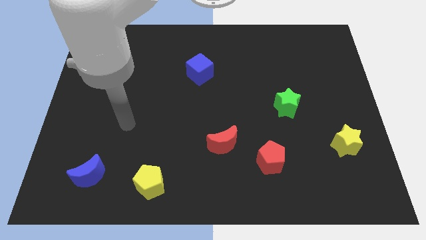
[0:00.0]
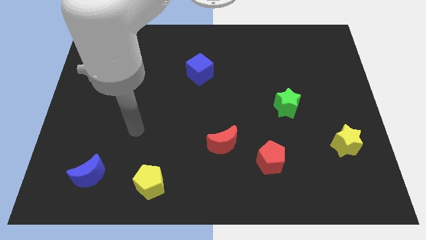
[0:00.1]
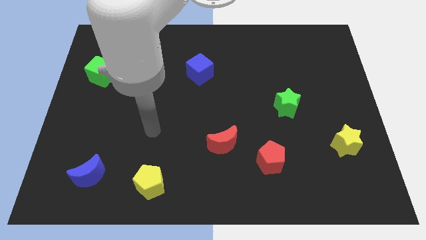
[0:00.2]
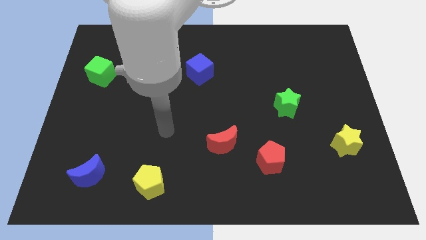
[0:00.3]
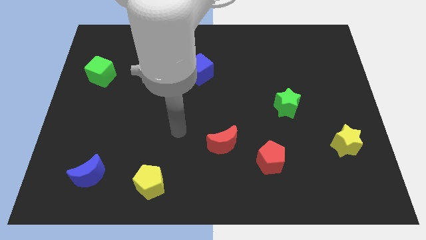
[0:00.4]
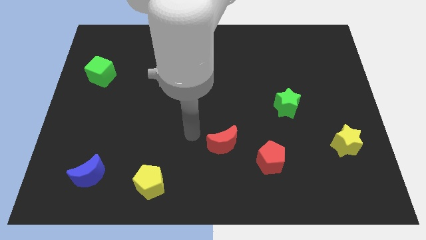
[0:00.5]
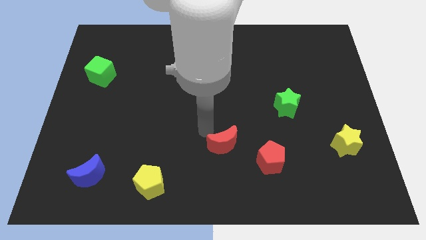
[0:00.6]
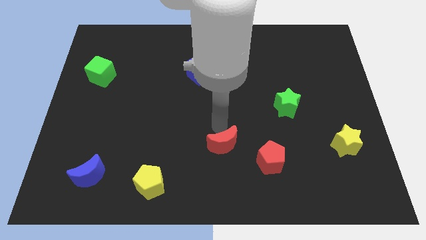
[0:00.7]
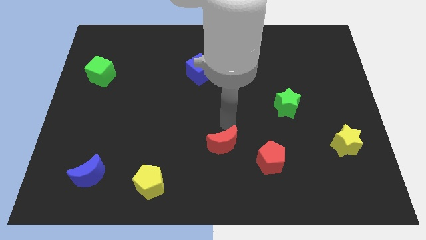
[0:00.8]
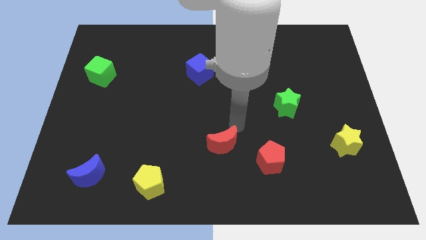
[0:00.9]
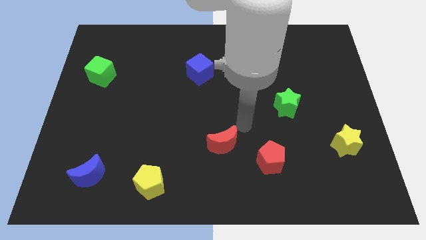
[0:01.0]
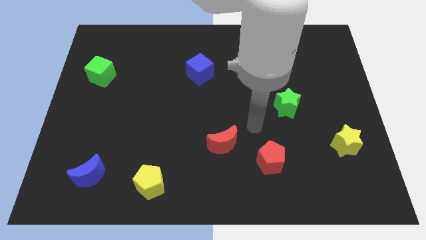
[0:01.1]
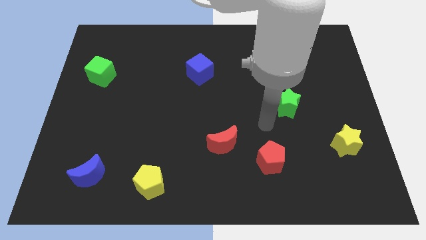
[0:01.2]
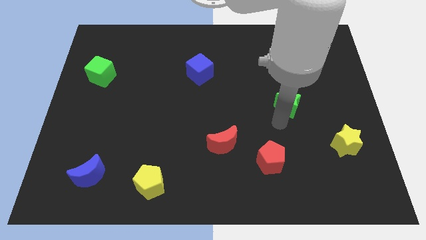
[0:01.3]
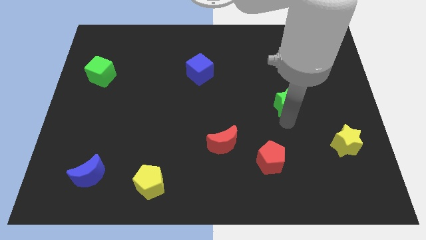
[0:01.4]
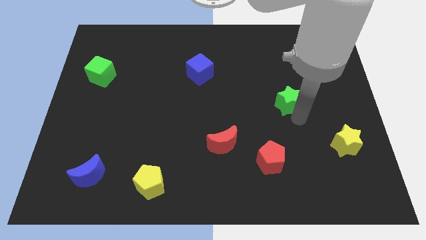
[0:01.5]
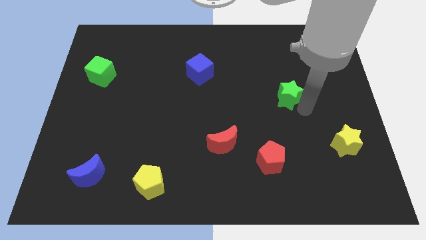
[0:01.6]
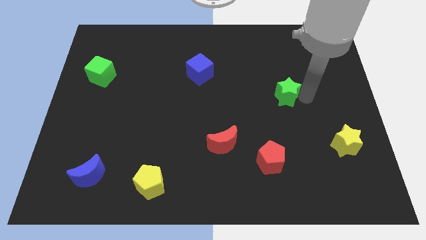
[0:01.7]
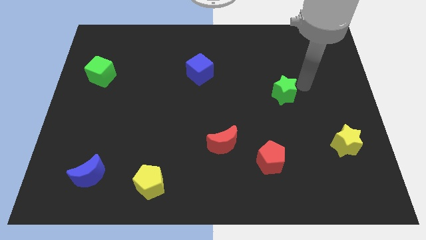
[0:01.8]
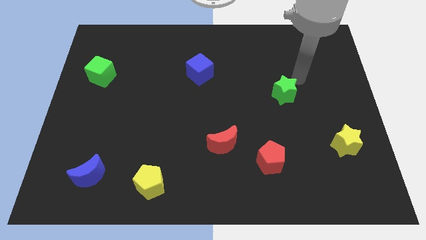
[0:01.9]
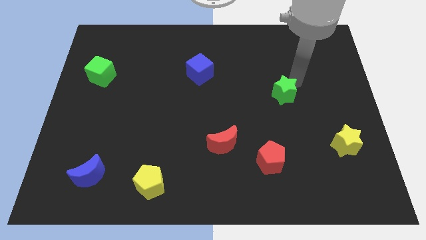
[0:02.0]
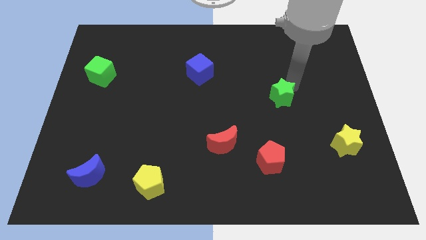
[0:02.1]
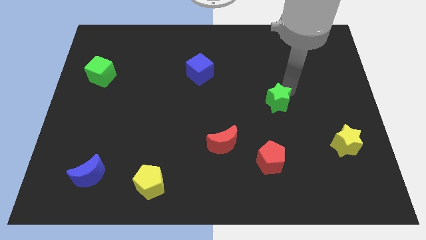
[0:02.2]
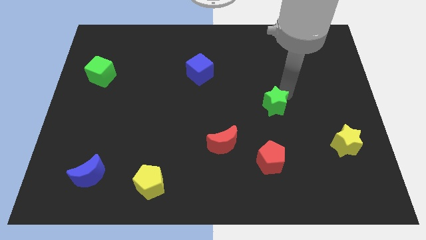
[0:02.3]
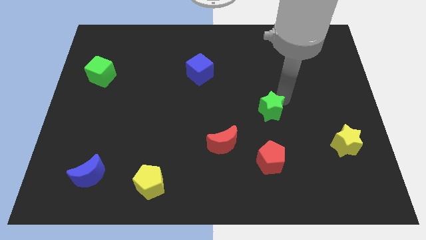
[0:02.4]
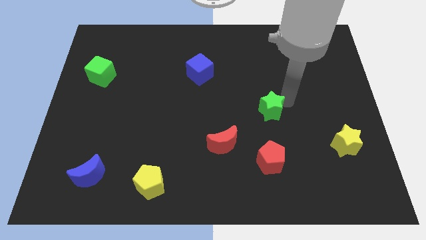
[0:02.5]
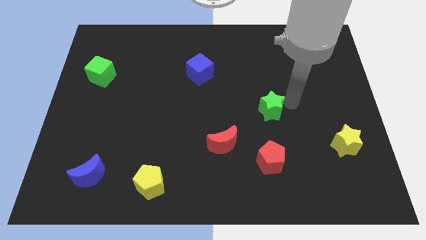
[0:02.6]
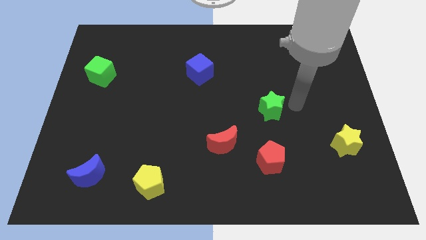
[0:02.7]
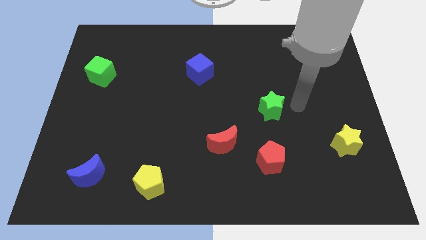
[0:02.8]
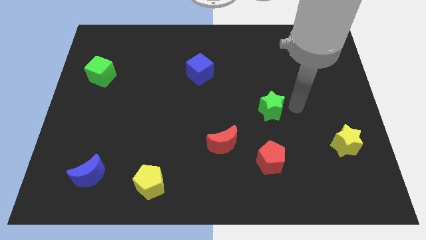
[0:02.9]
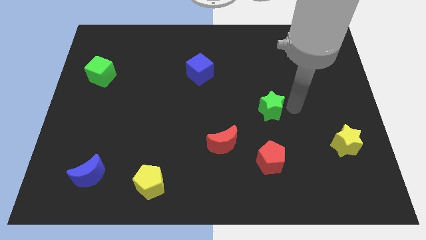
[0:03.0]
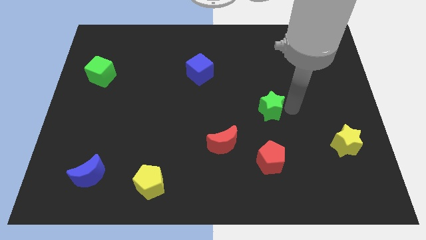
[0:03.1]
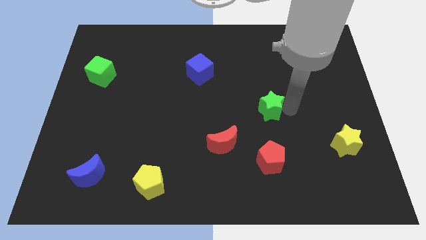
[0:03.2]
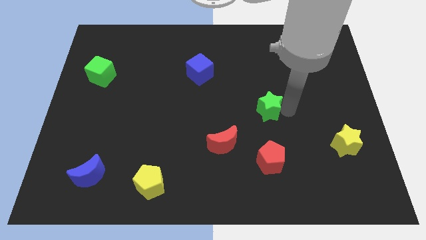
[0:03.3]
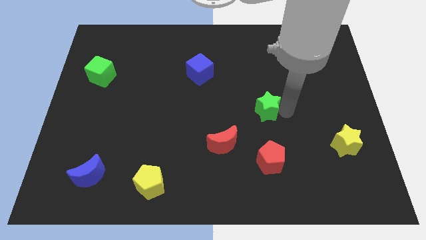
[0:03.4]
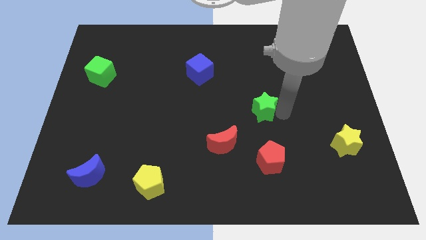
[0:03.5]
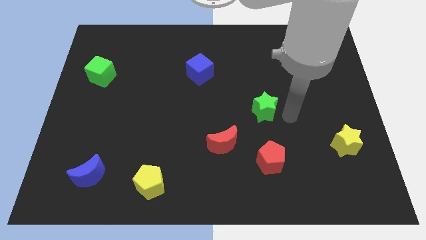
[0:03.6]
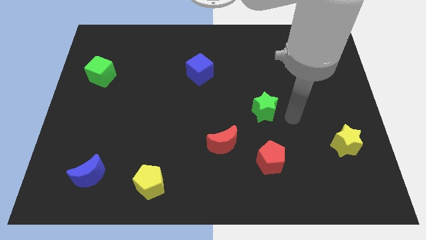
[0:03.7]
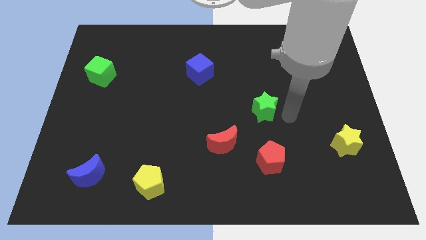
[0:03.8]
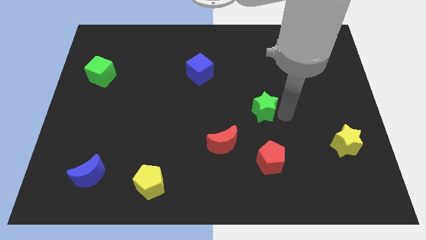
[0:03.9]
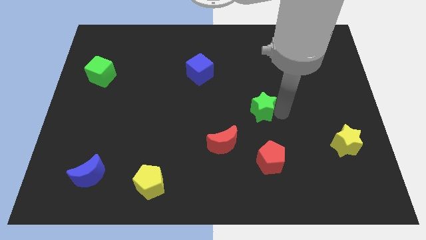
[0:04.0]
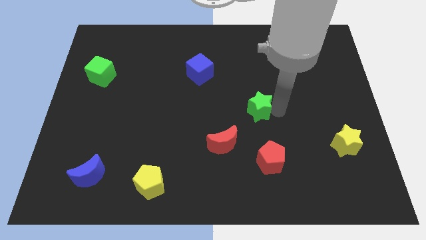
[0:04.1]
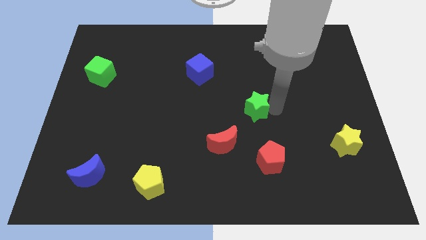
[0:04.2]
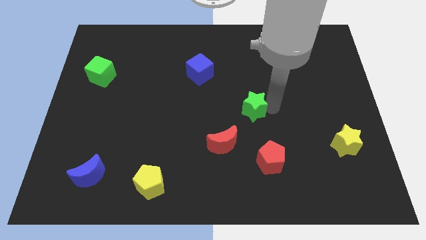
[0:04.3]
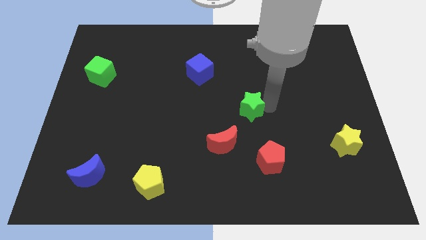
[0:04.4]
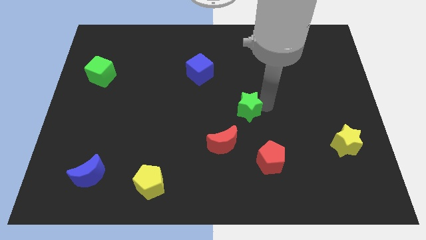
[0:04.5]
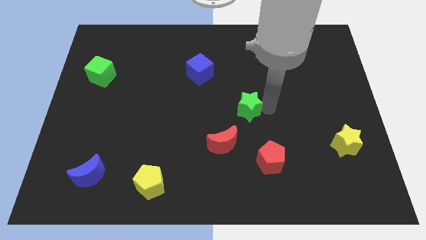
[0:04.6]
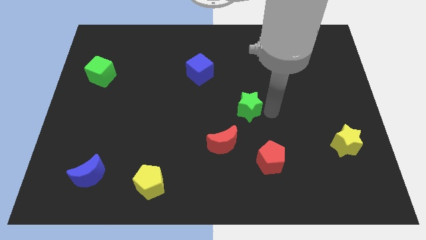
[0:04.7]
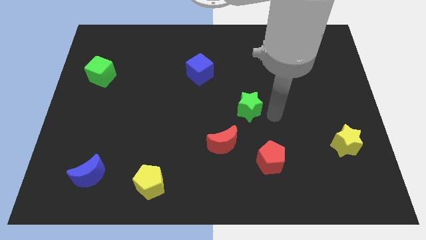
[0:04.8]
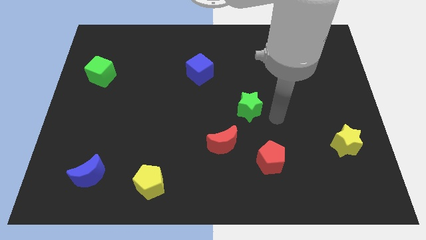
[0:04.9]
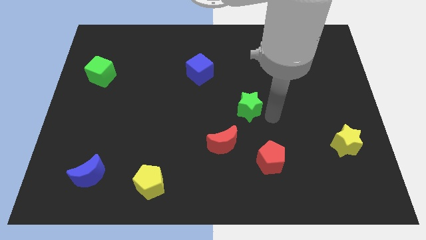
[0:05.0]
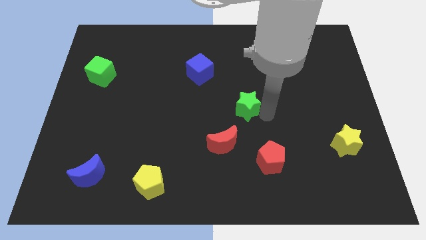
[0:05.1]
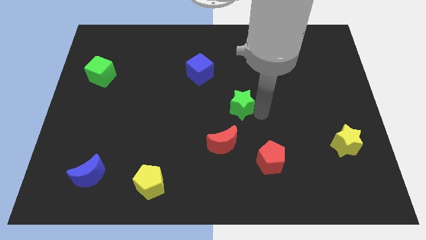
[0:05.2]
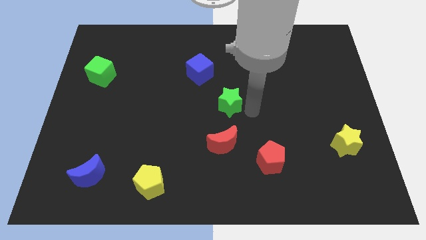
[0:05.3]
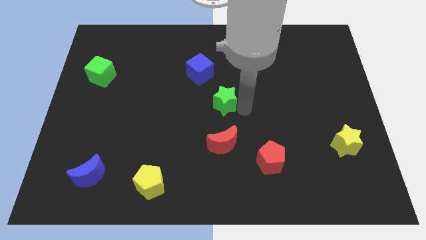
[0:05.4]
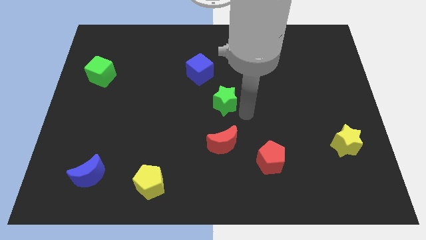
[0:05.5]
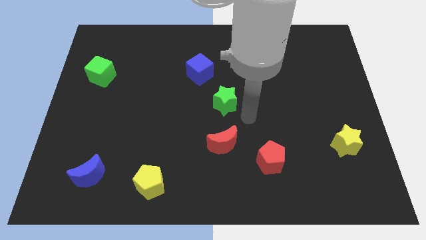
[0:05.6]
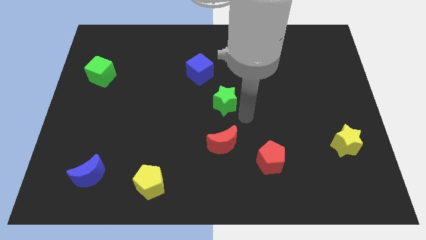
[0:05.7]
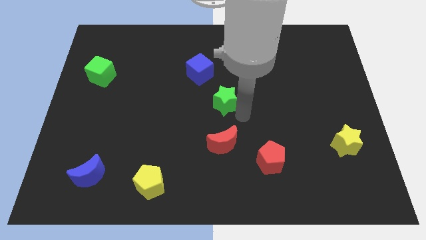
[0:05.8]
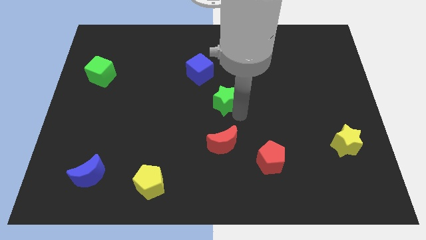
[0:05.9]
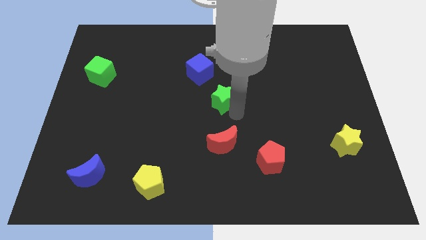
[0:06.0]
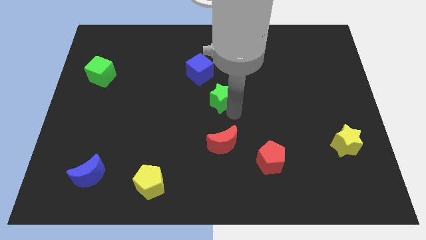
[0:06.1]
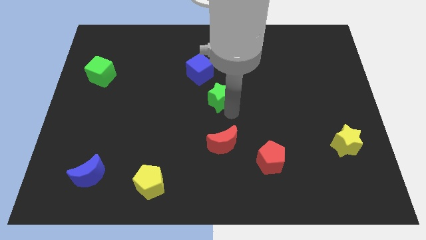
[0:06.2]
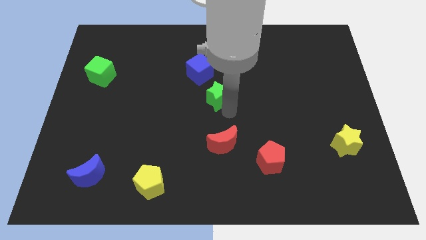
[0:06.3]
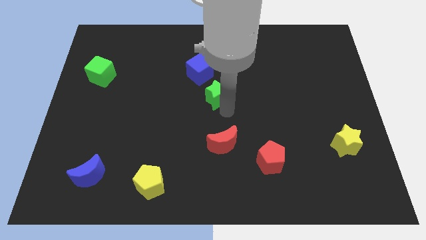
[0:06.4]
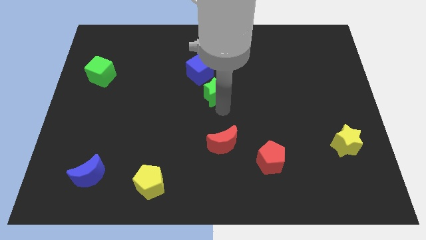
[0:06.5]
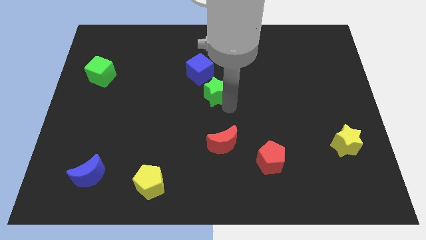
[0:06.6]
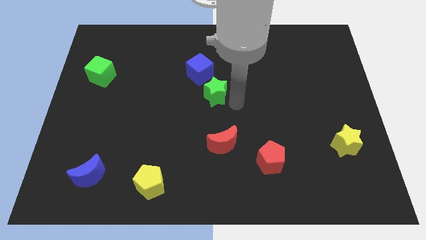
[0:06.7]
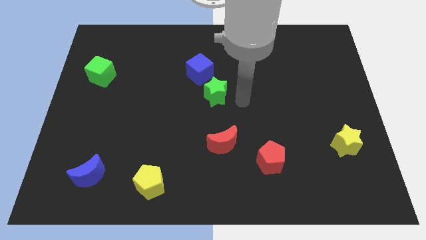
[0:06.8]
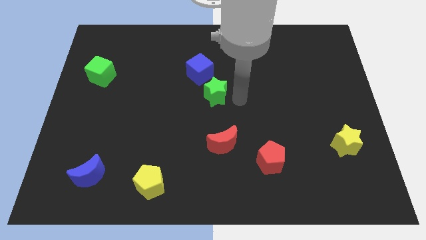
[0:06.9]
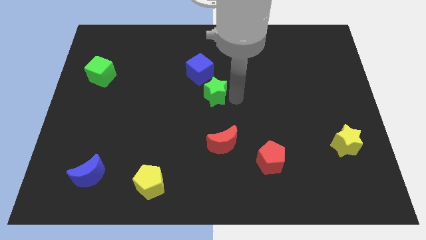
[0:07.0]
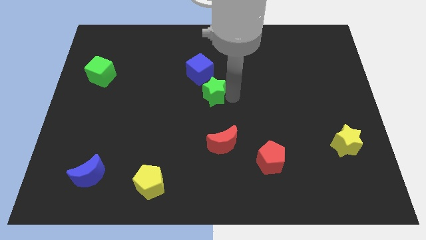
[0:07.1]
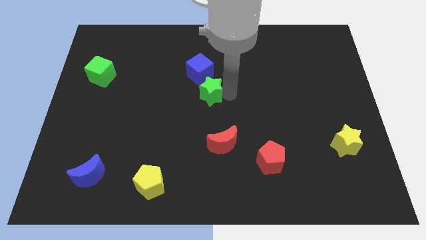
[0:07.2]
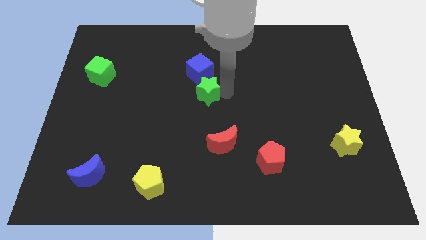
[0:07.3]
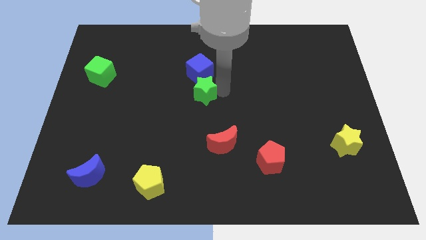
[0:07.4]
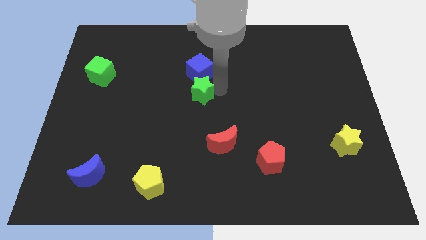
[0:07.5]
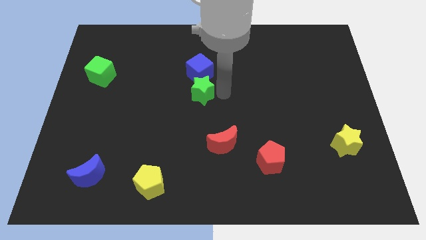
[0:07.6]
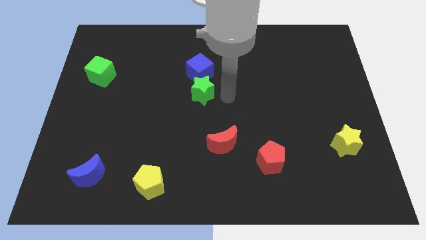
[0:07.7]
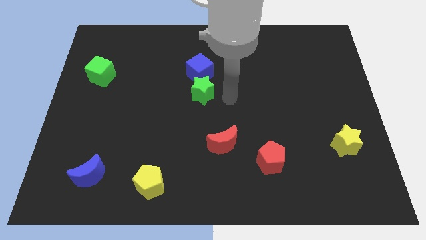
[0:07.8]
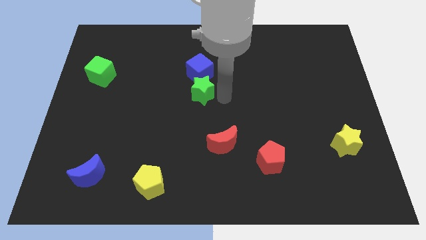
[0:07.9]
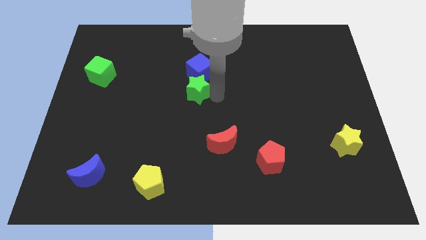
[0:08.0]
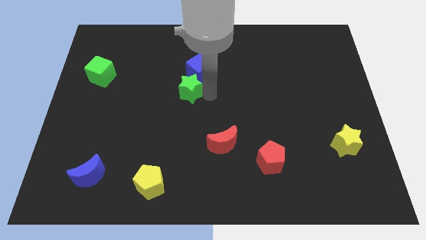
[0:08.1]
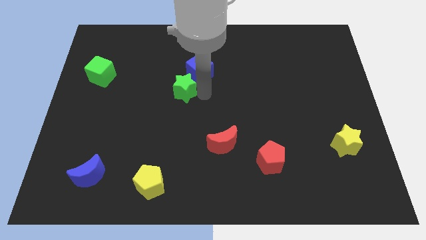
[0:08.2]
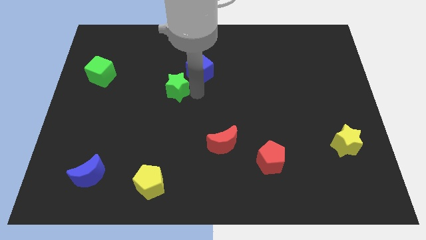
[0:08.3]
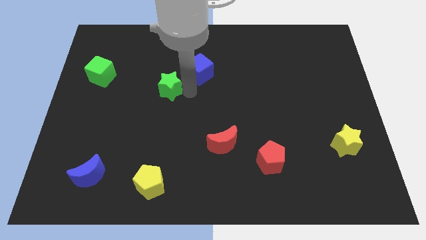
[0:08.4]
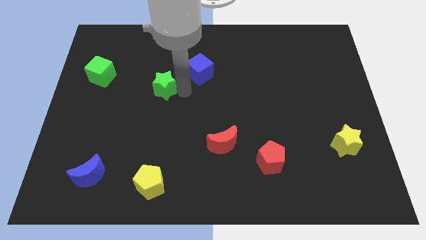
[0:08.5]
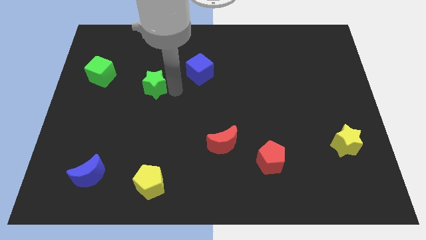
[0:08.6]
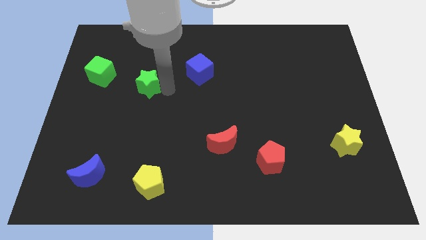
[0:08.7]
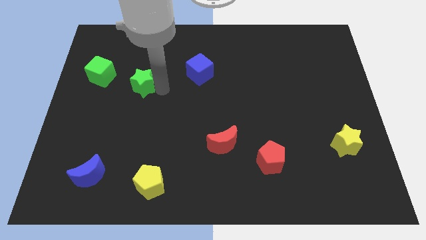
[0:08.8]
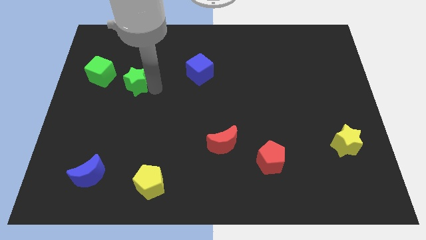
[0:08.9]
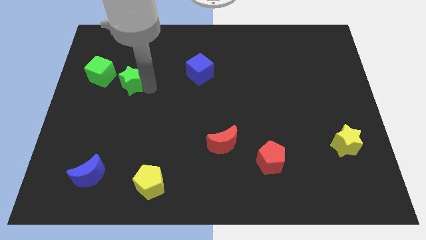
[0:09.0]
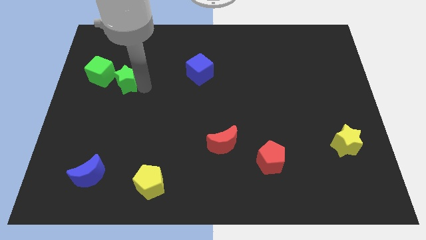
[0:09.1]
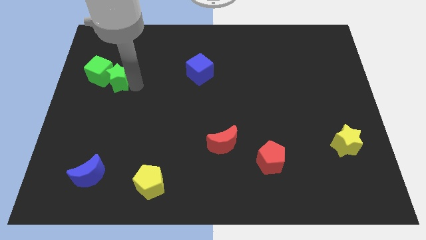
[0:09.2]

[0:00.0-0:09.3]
slide the green star next to the green cube
